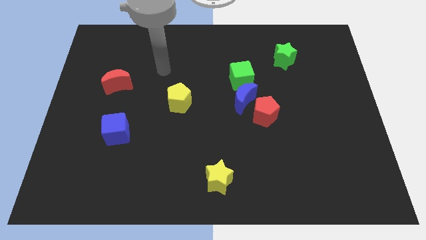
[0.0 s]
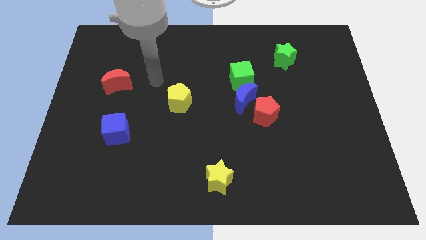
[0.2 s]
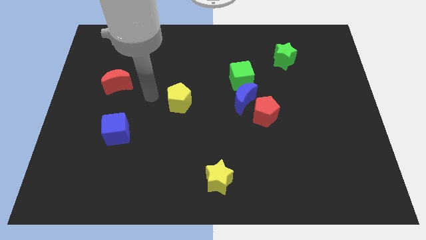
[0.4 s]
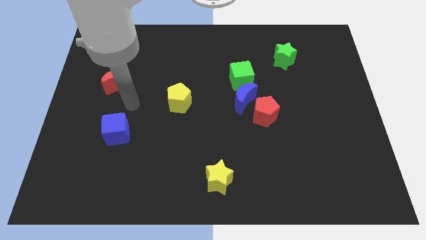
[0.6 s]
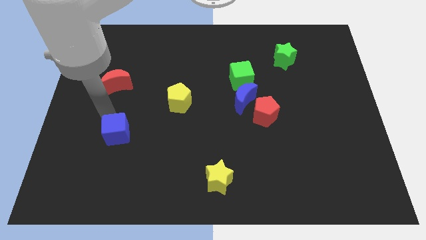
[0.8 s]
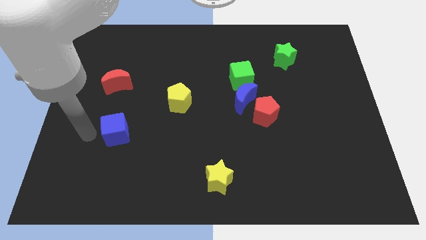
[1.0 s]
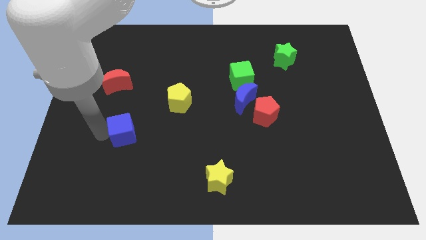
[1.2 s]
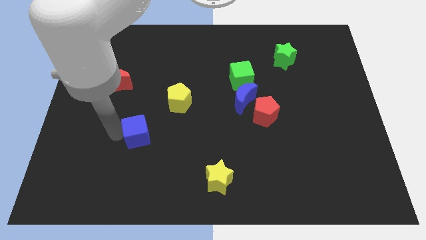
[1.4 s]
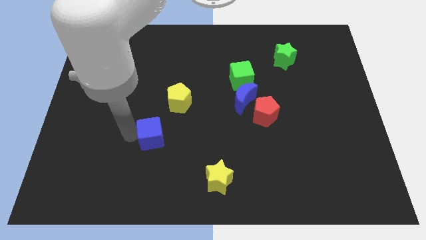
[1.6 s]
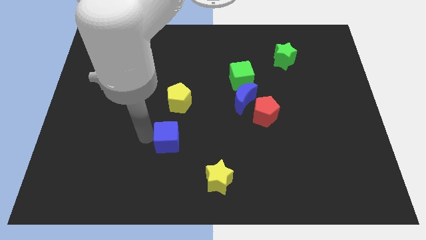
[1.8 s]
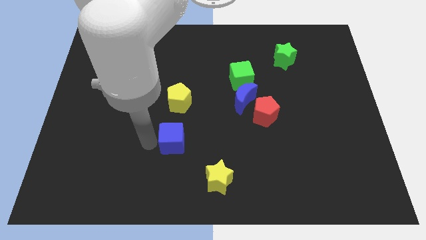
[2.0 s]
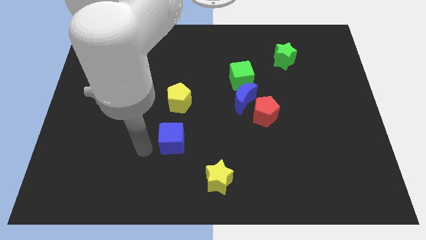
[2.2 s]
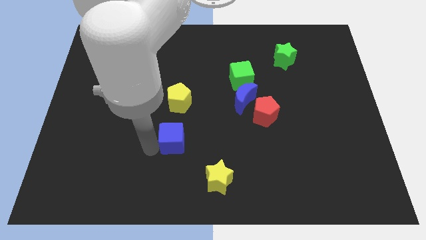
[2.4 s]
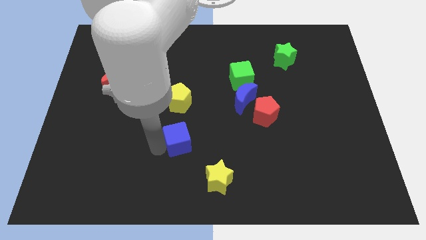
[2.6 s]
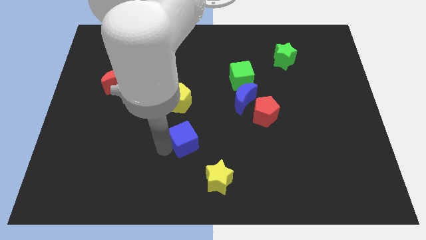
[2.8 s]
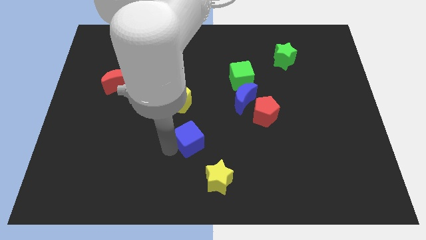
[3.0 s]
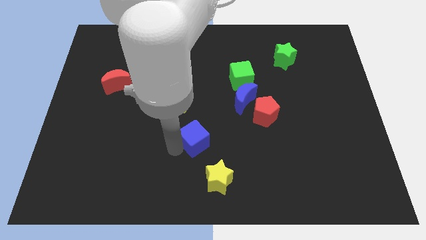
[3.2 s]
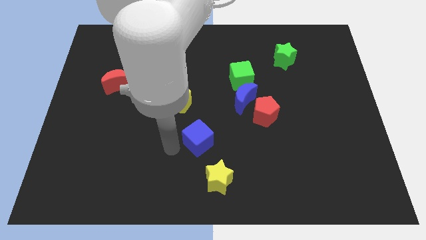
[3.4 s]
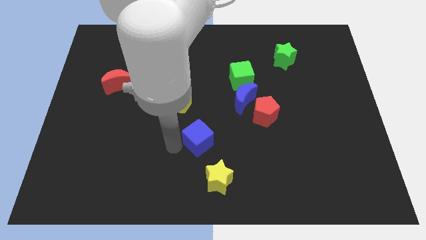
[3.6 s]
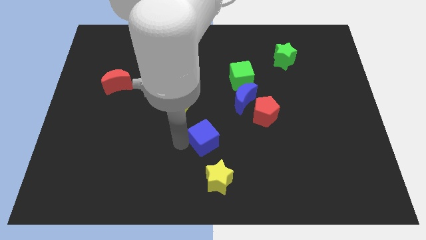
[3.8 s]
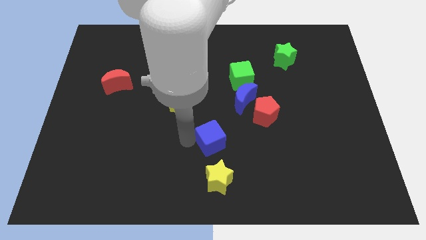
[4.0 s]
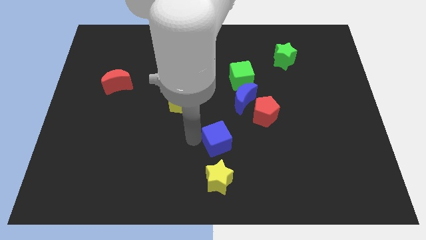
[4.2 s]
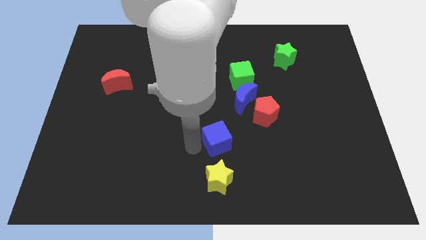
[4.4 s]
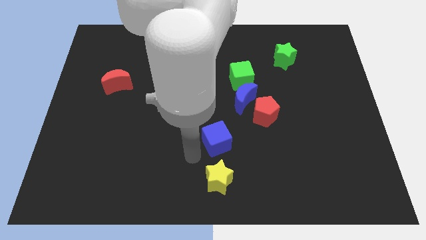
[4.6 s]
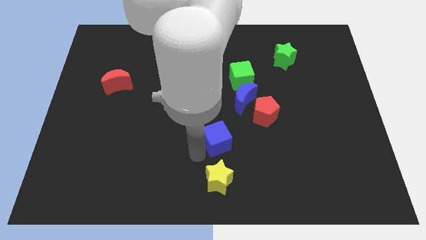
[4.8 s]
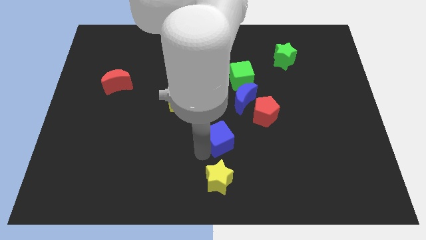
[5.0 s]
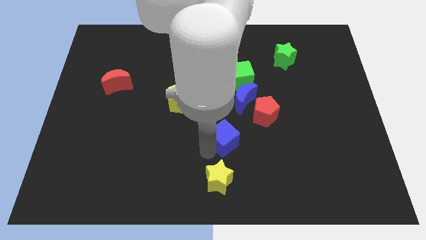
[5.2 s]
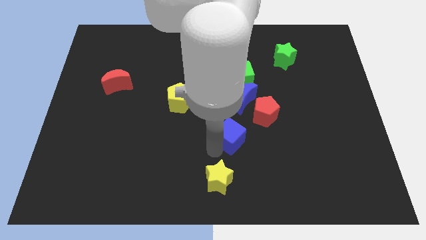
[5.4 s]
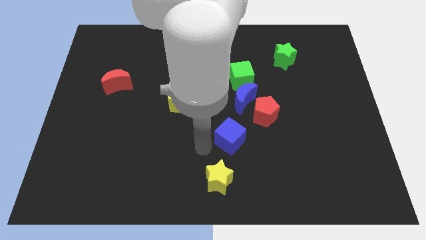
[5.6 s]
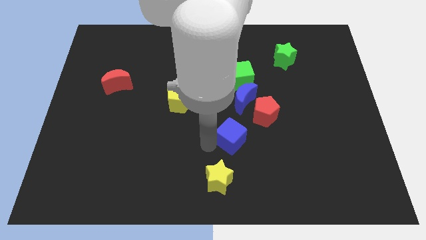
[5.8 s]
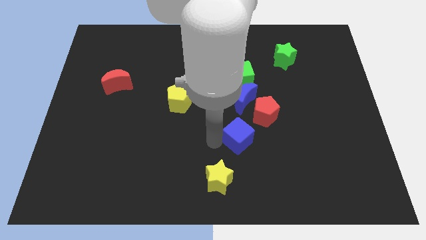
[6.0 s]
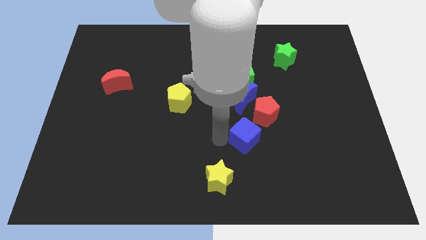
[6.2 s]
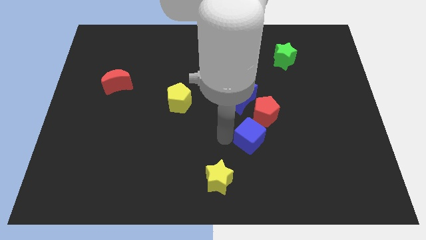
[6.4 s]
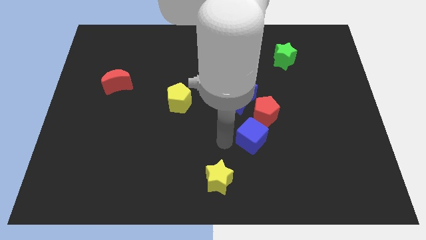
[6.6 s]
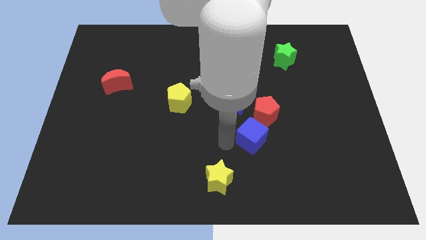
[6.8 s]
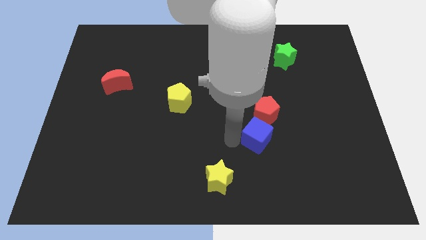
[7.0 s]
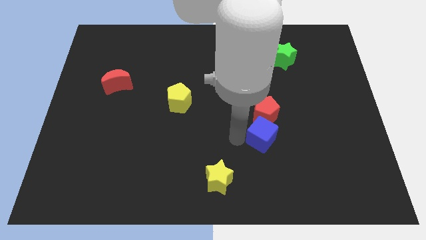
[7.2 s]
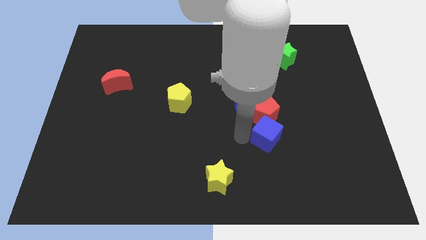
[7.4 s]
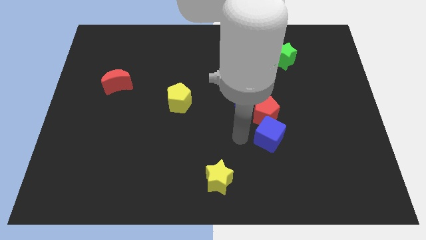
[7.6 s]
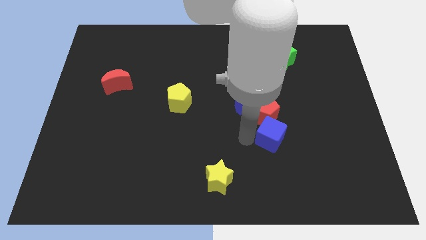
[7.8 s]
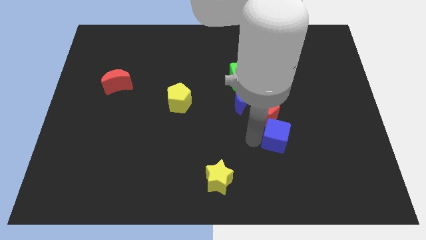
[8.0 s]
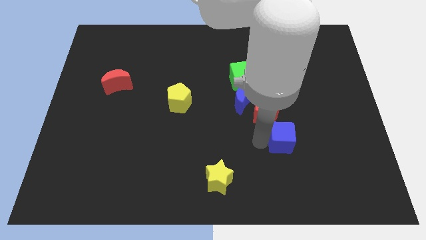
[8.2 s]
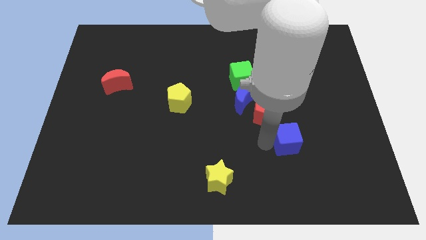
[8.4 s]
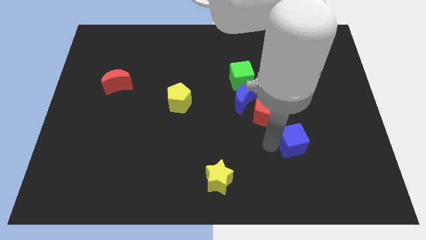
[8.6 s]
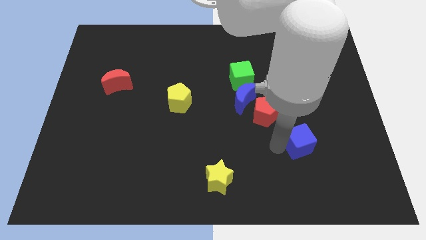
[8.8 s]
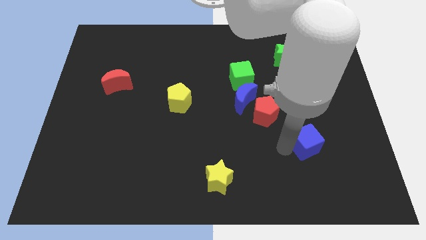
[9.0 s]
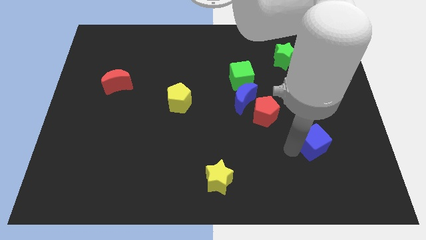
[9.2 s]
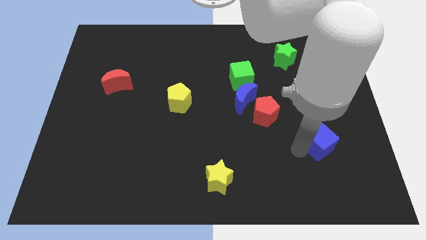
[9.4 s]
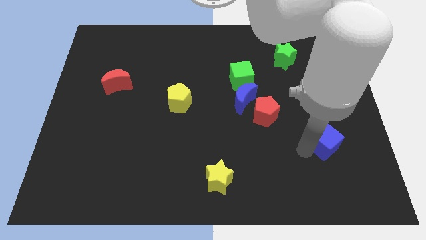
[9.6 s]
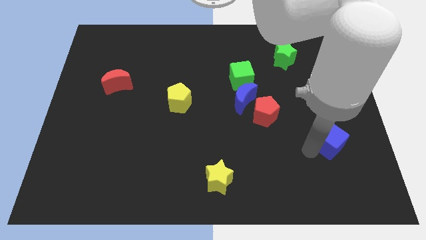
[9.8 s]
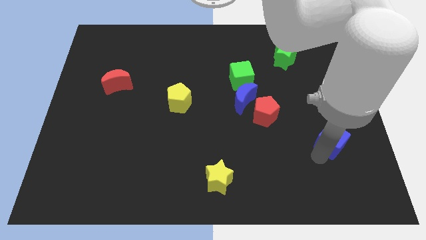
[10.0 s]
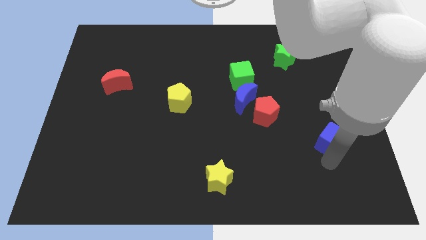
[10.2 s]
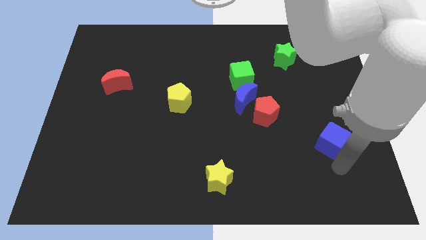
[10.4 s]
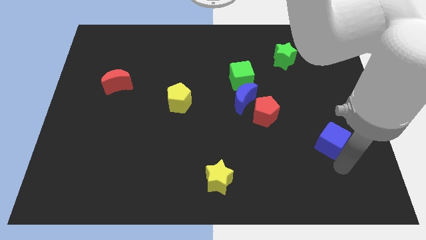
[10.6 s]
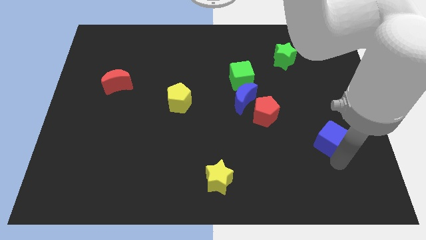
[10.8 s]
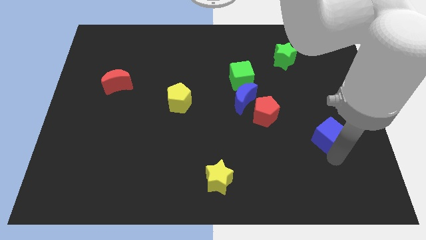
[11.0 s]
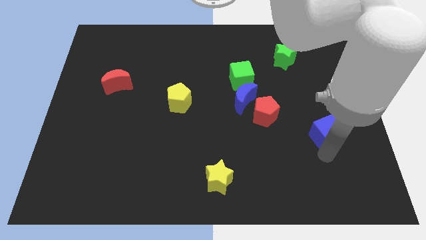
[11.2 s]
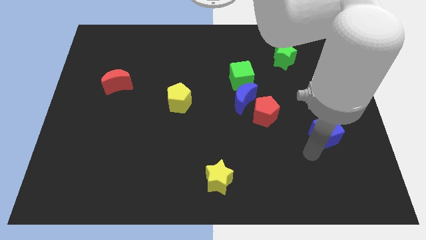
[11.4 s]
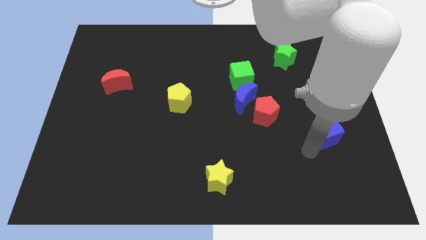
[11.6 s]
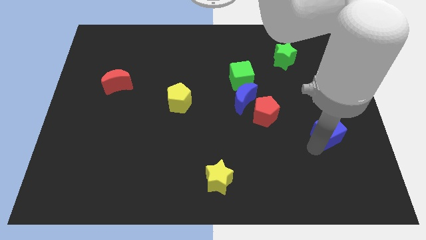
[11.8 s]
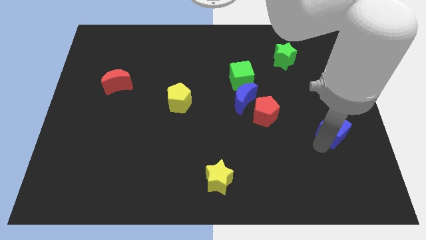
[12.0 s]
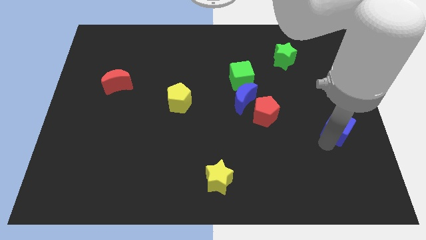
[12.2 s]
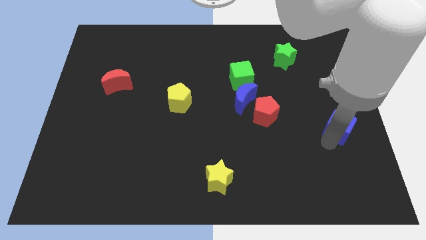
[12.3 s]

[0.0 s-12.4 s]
move the blue cube to the center right

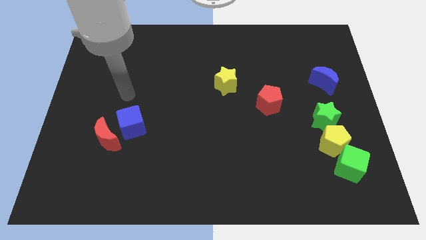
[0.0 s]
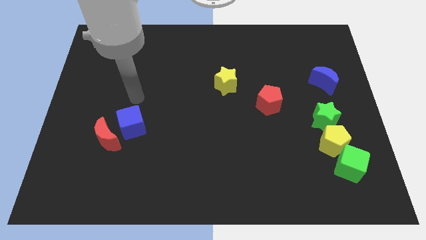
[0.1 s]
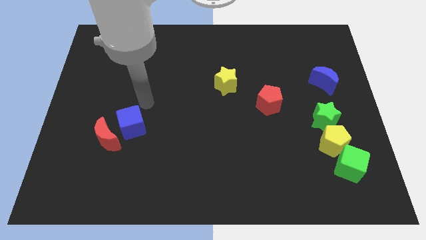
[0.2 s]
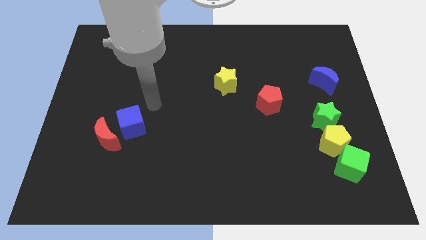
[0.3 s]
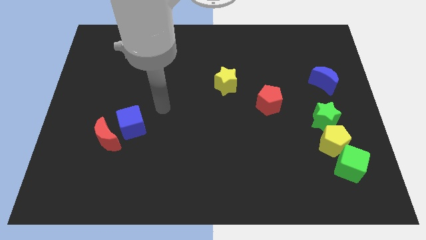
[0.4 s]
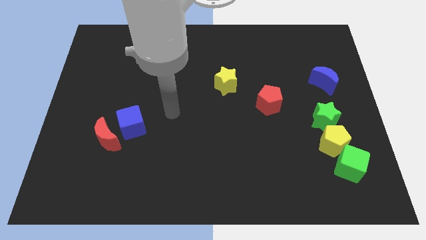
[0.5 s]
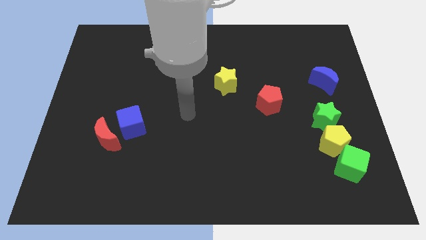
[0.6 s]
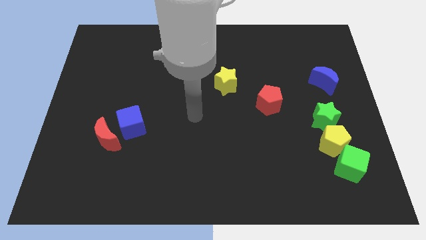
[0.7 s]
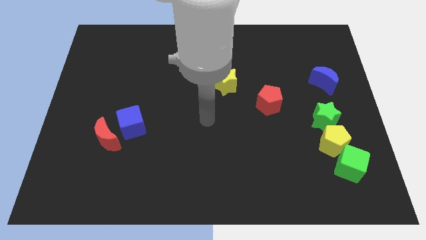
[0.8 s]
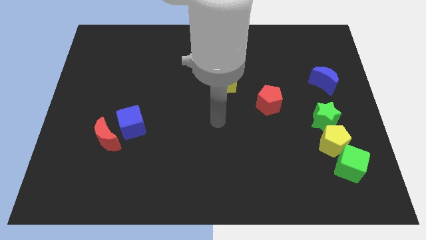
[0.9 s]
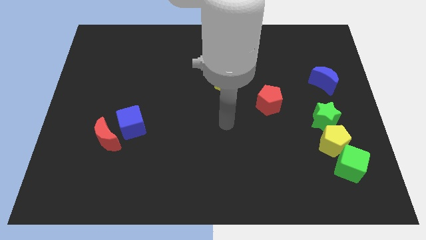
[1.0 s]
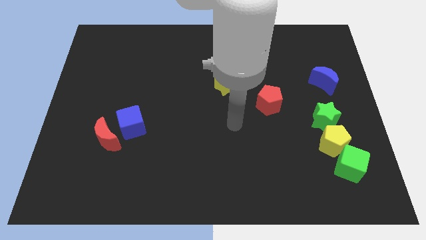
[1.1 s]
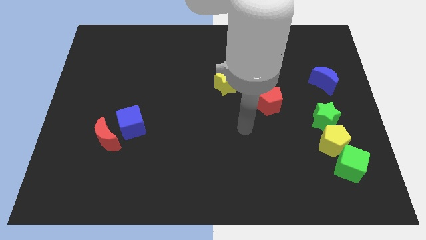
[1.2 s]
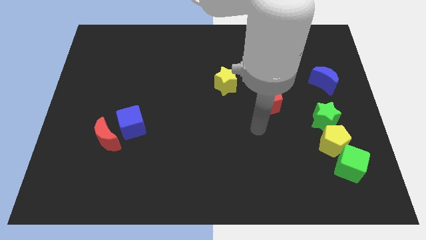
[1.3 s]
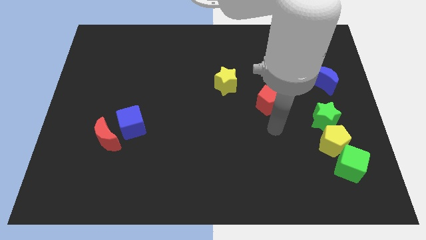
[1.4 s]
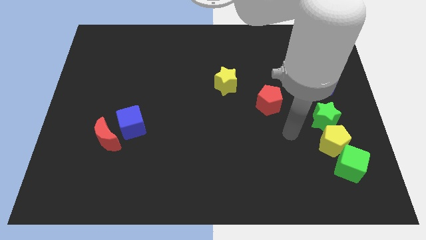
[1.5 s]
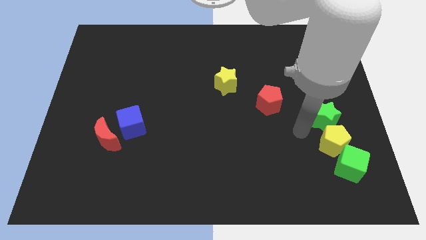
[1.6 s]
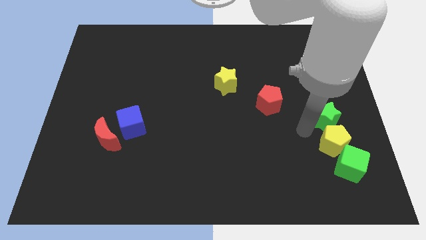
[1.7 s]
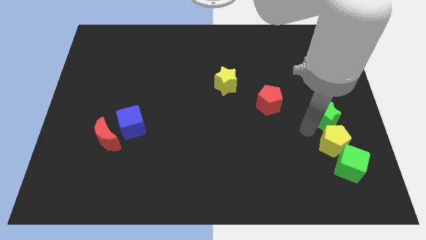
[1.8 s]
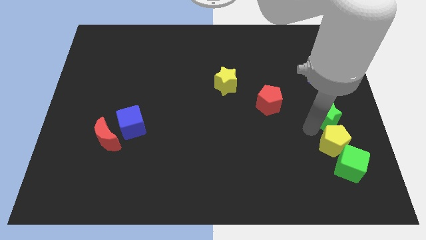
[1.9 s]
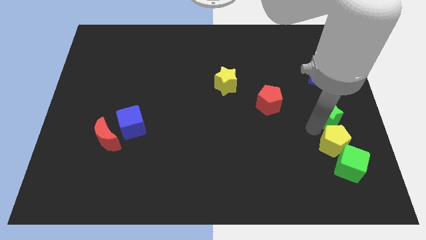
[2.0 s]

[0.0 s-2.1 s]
slide the green star to the right side
